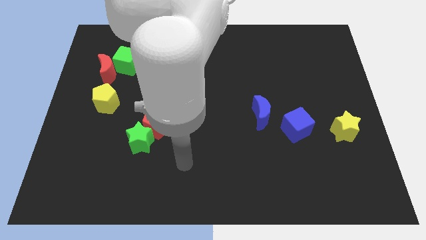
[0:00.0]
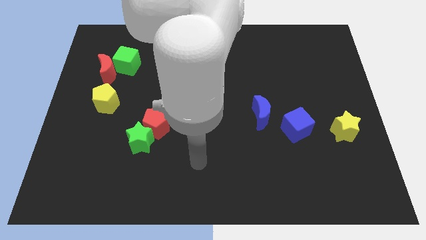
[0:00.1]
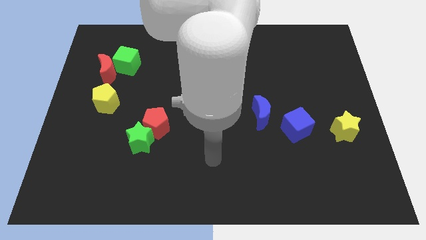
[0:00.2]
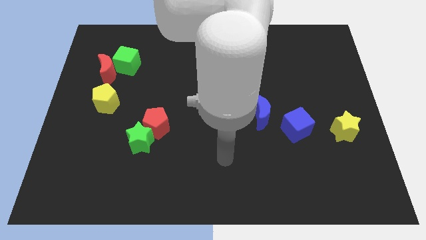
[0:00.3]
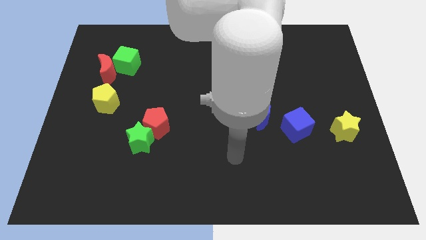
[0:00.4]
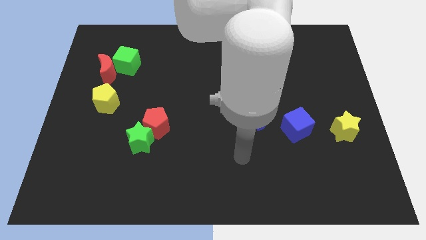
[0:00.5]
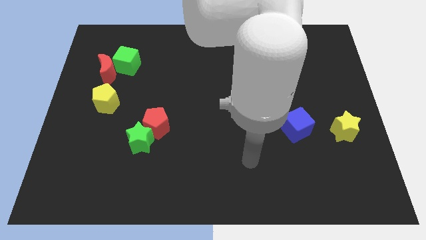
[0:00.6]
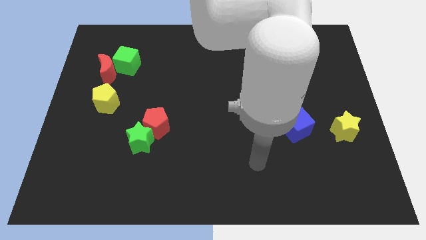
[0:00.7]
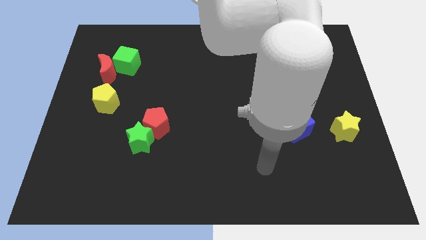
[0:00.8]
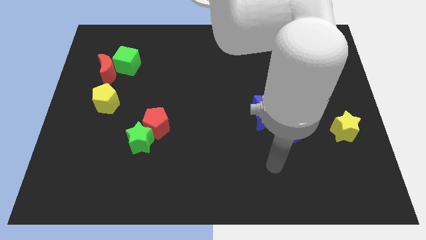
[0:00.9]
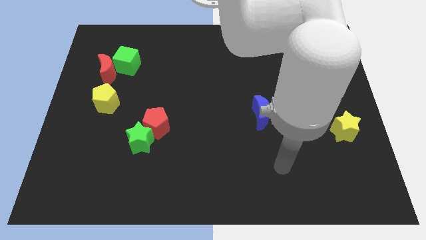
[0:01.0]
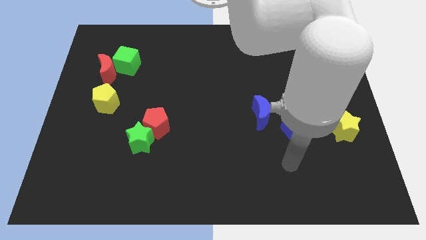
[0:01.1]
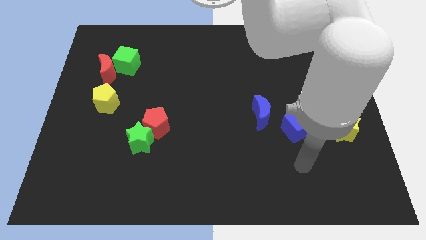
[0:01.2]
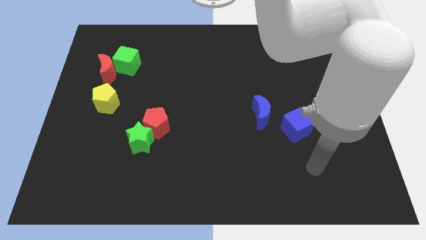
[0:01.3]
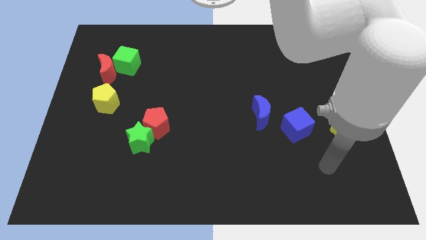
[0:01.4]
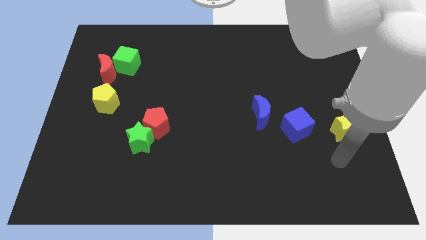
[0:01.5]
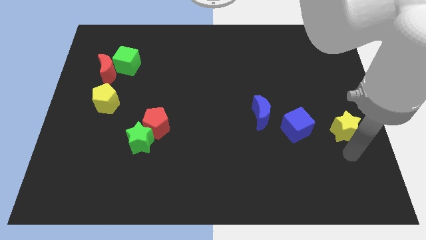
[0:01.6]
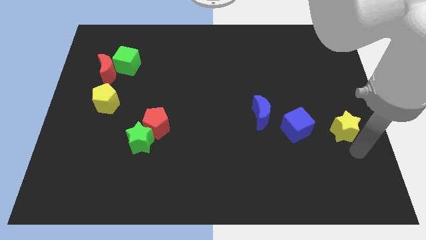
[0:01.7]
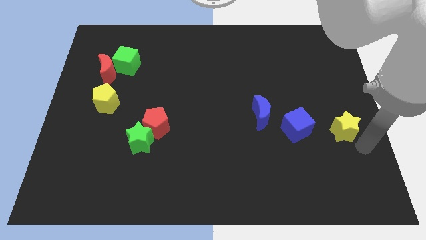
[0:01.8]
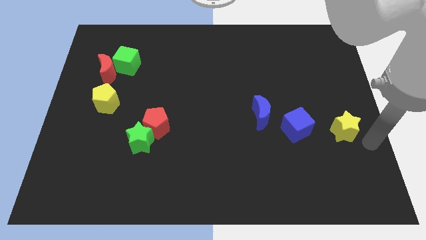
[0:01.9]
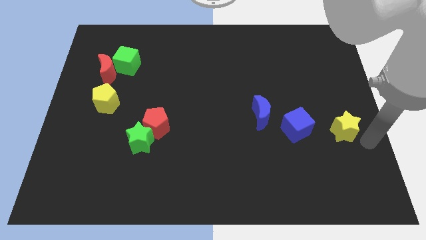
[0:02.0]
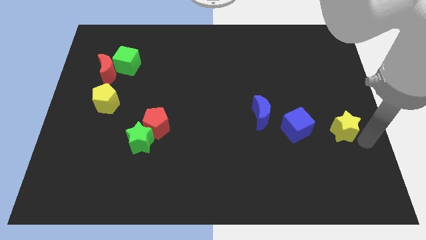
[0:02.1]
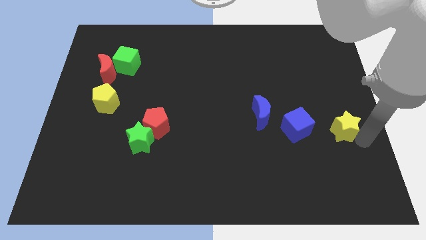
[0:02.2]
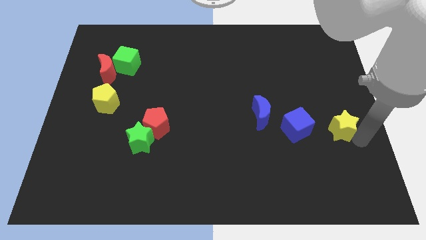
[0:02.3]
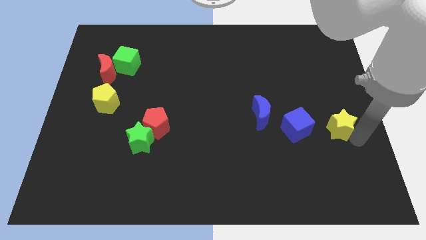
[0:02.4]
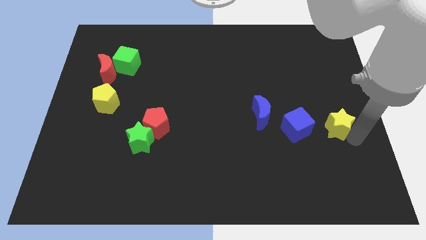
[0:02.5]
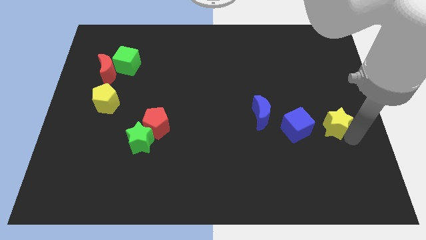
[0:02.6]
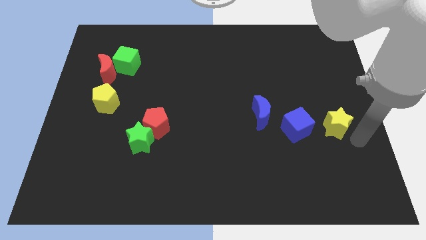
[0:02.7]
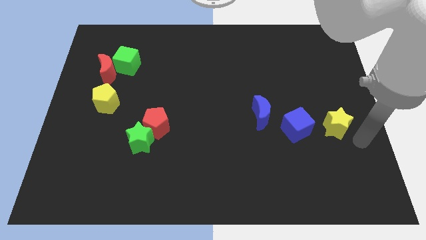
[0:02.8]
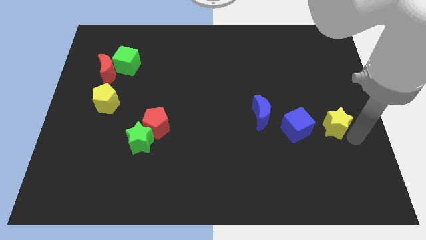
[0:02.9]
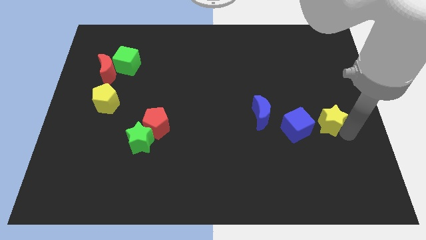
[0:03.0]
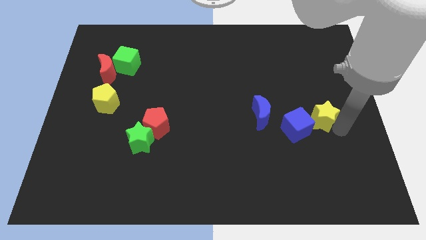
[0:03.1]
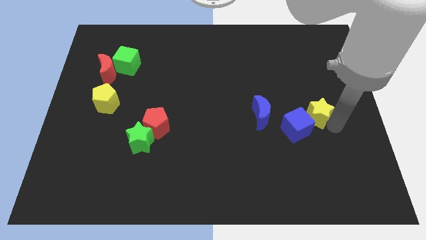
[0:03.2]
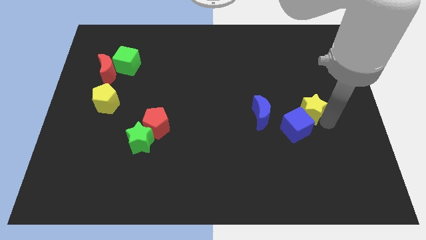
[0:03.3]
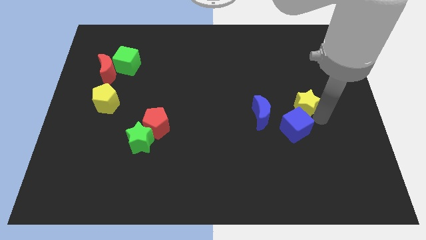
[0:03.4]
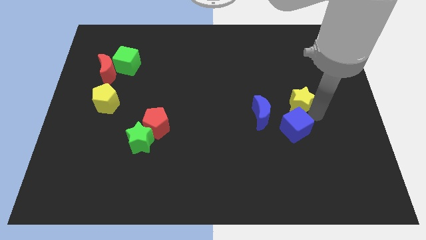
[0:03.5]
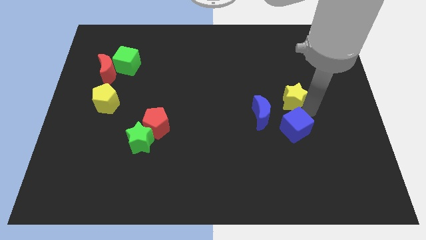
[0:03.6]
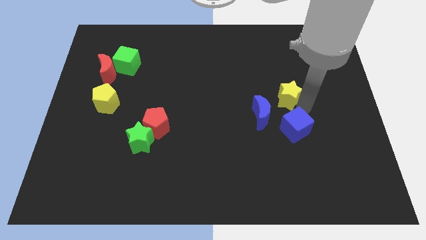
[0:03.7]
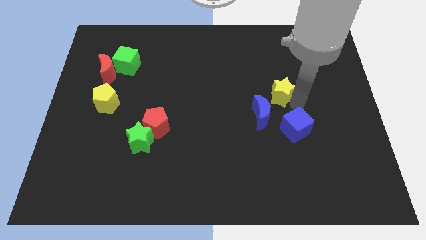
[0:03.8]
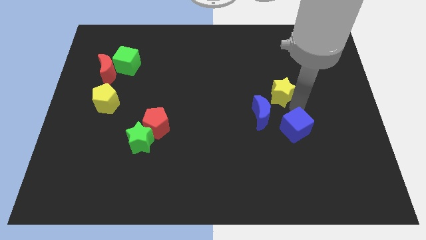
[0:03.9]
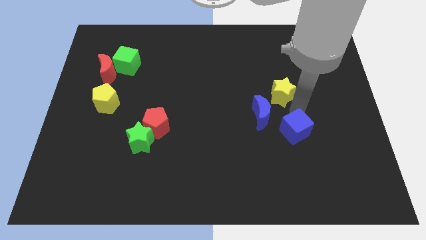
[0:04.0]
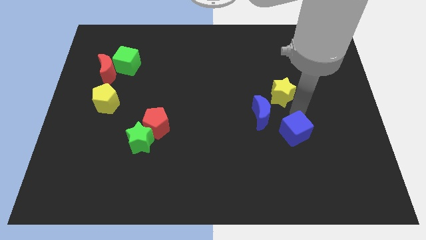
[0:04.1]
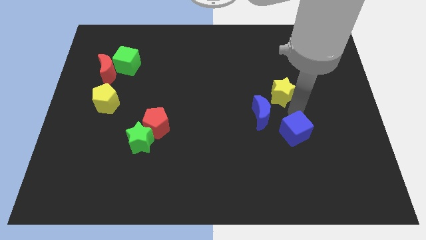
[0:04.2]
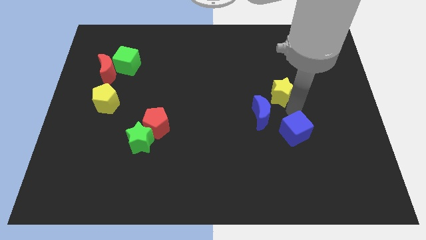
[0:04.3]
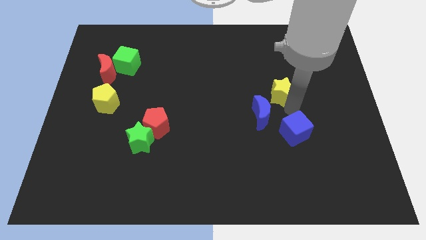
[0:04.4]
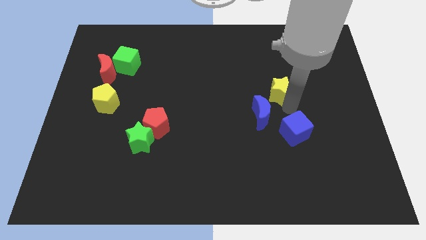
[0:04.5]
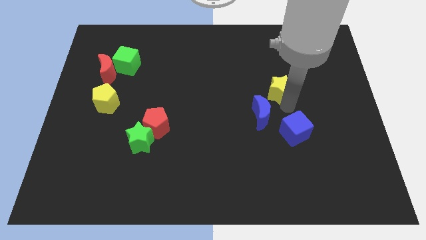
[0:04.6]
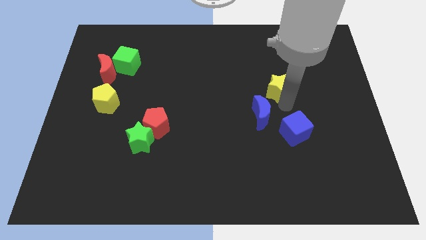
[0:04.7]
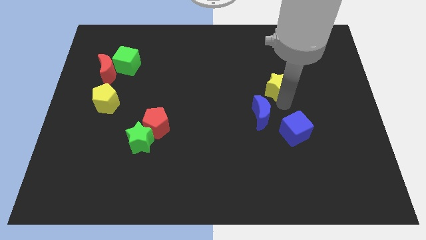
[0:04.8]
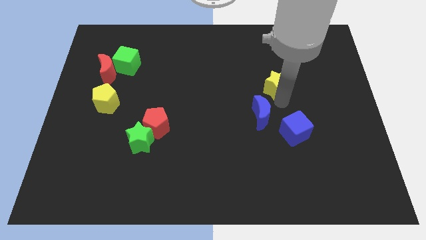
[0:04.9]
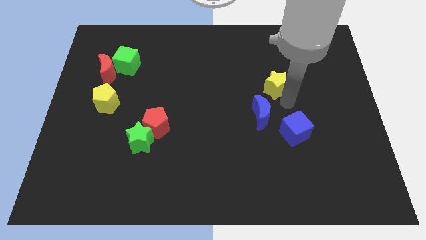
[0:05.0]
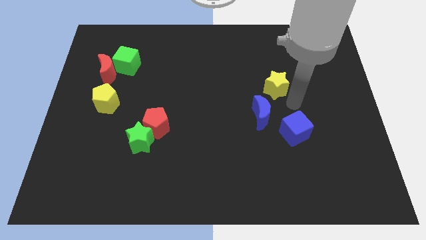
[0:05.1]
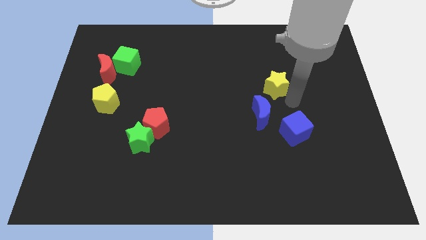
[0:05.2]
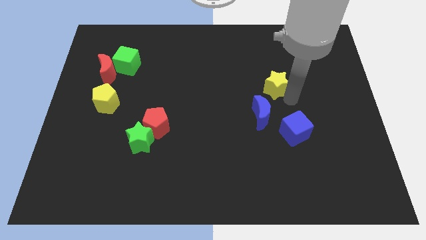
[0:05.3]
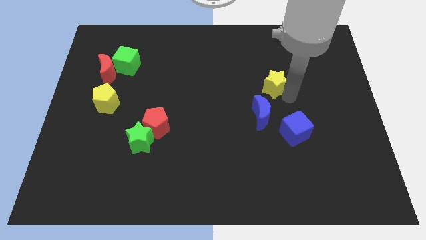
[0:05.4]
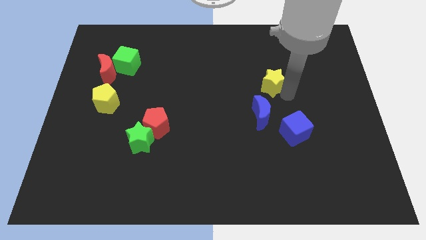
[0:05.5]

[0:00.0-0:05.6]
push the yellow star up and then to the left

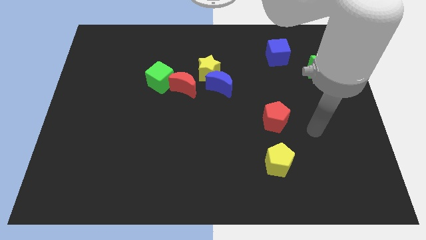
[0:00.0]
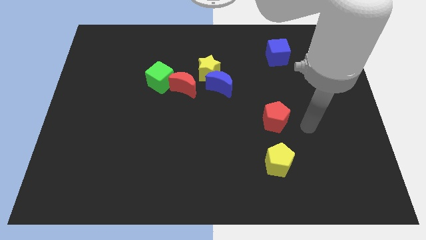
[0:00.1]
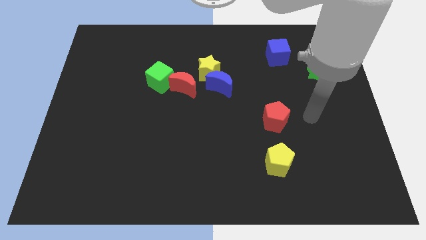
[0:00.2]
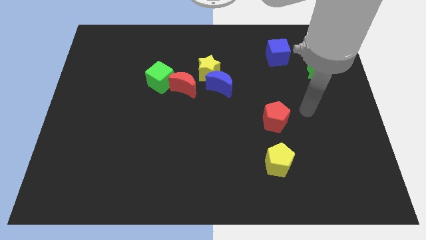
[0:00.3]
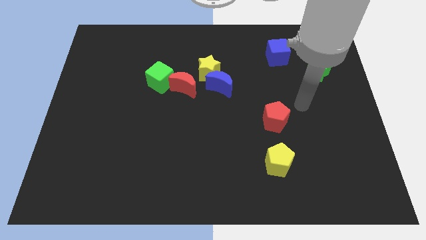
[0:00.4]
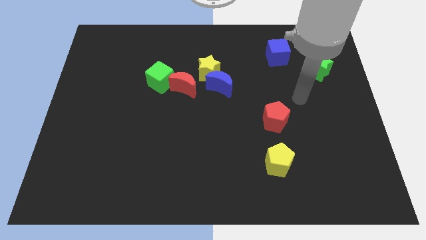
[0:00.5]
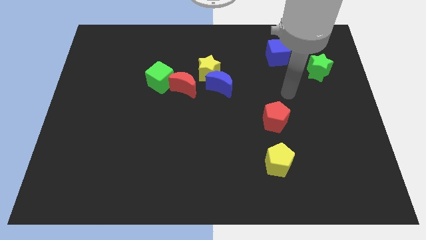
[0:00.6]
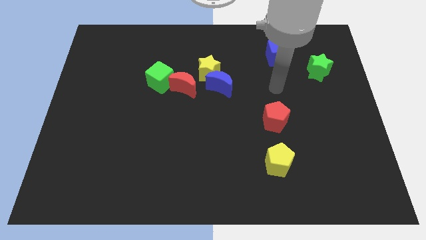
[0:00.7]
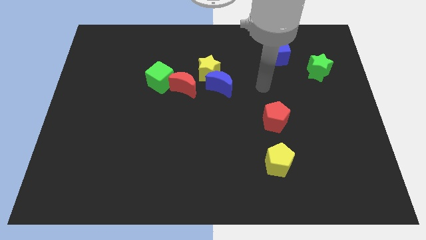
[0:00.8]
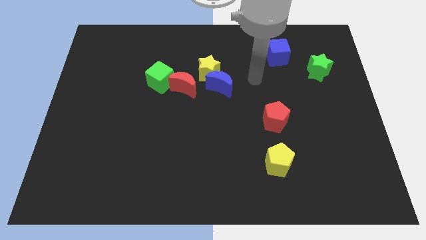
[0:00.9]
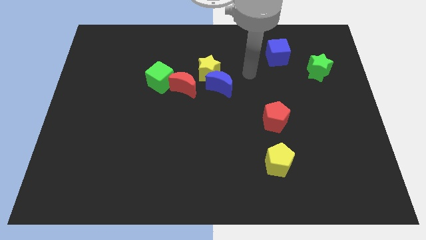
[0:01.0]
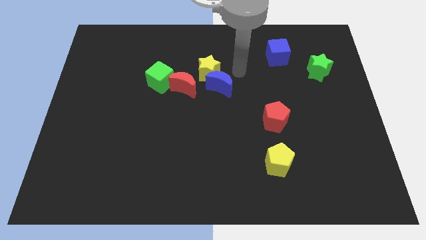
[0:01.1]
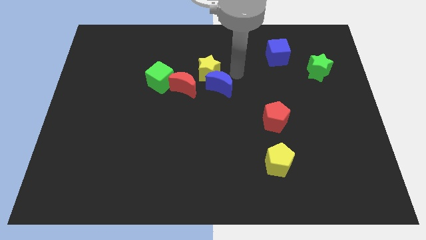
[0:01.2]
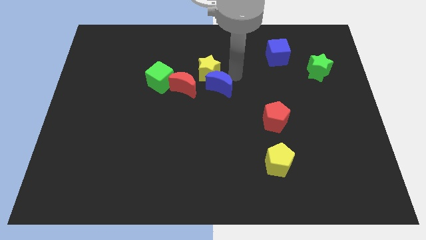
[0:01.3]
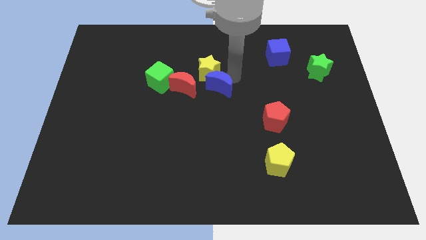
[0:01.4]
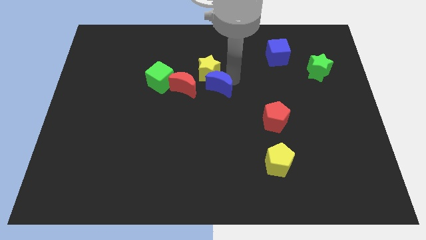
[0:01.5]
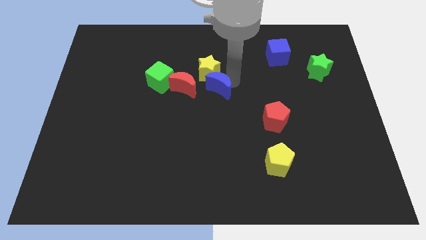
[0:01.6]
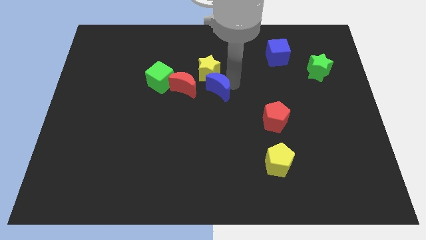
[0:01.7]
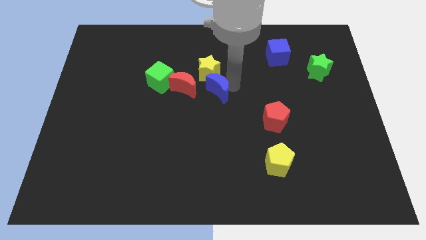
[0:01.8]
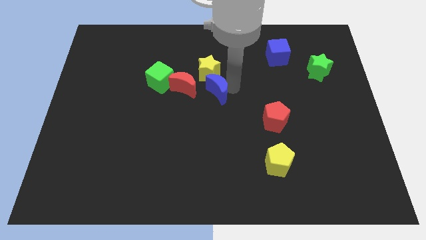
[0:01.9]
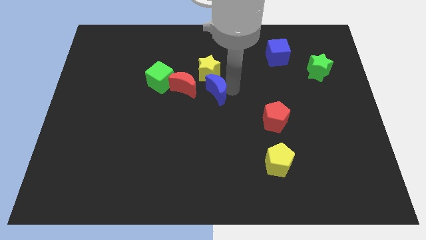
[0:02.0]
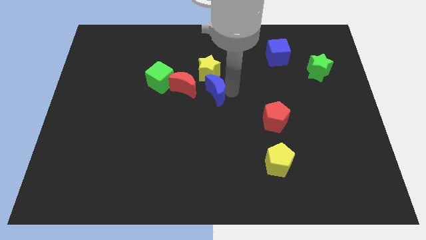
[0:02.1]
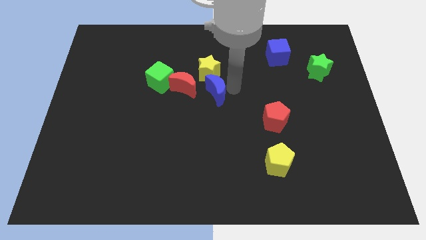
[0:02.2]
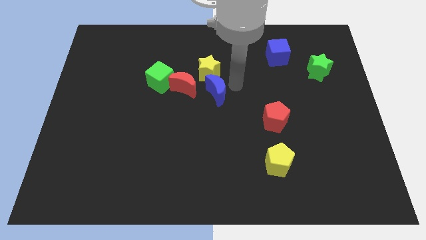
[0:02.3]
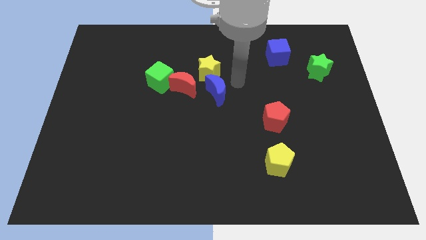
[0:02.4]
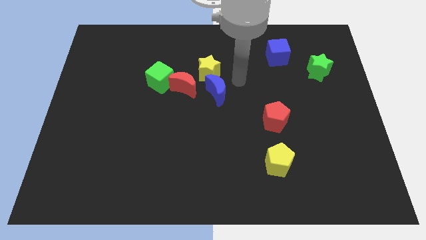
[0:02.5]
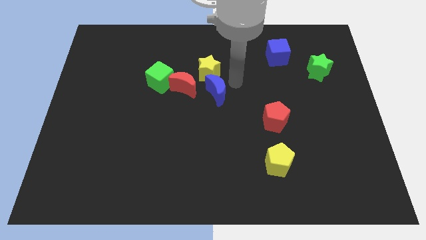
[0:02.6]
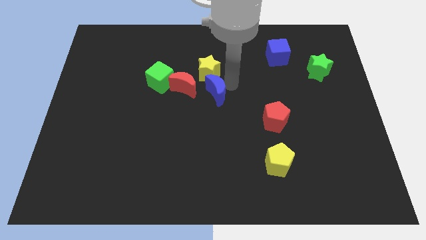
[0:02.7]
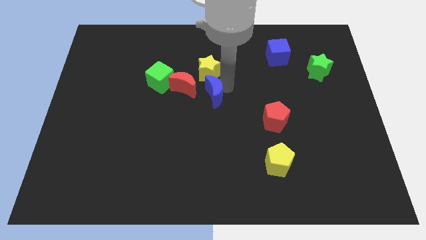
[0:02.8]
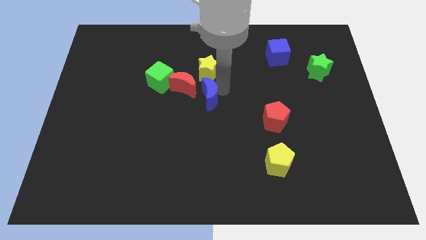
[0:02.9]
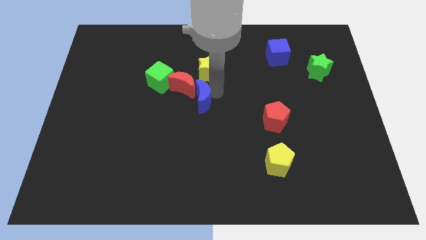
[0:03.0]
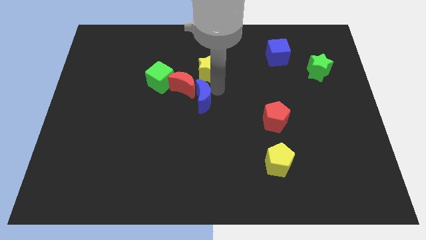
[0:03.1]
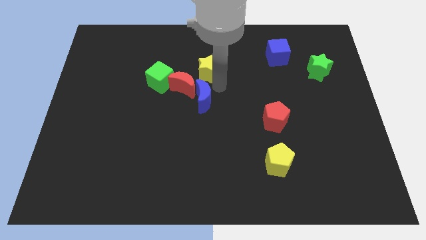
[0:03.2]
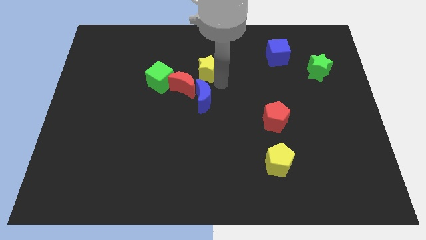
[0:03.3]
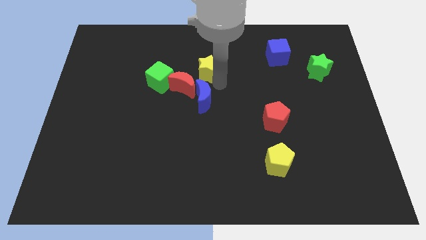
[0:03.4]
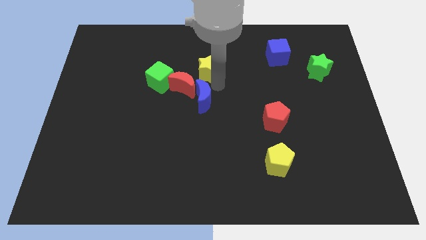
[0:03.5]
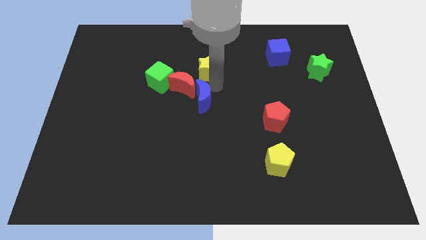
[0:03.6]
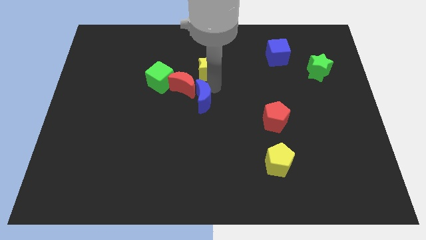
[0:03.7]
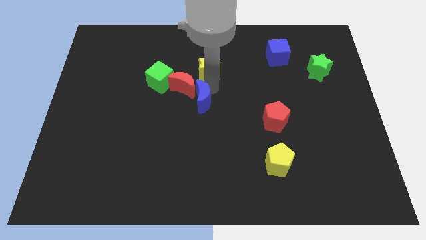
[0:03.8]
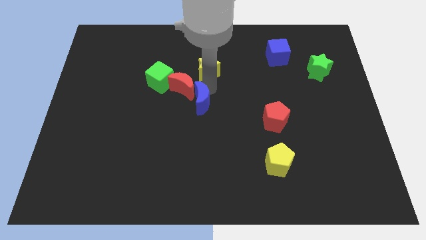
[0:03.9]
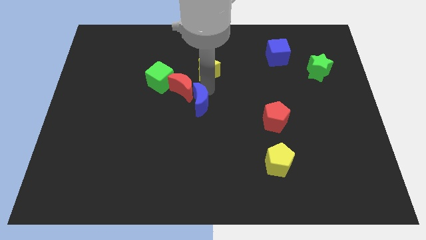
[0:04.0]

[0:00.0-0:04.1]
push the blue moon downwards and then to the left somewhat
